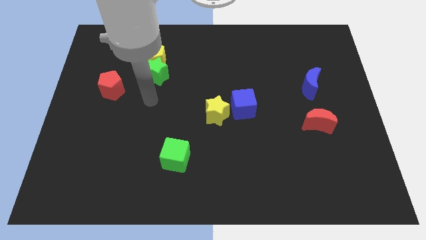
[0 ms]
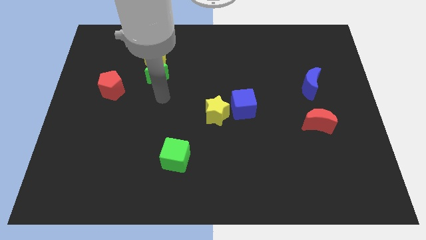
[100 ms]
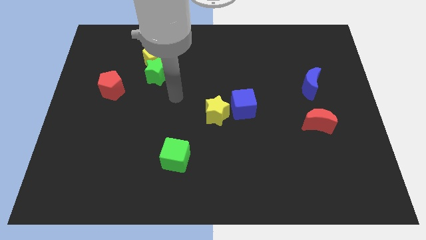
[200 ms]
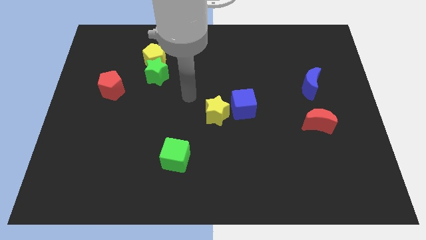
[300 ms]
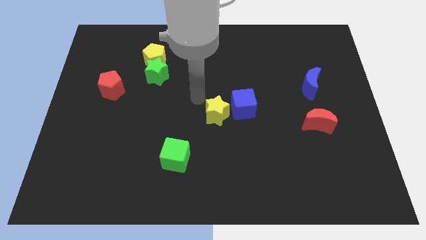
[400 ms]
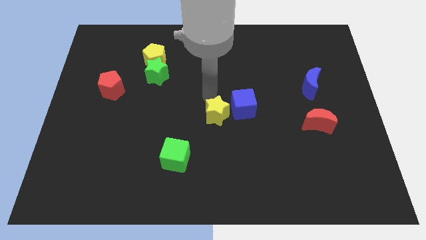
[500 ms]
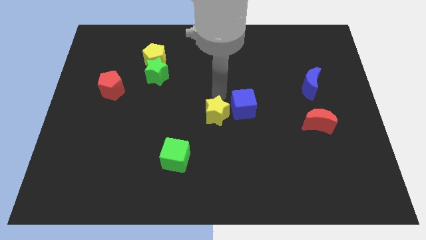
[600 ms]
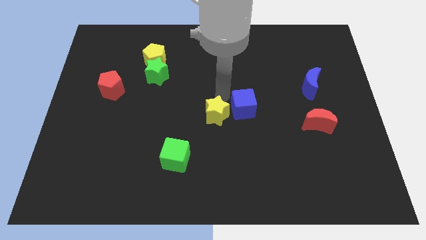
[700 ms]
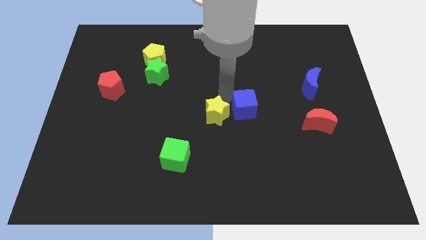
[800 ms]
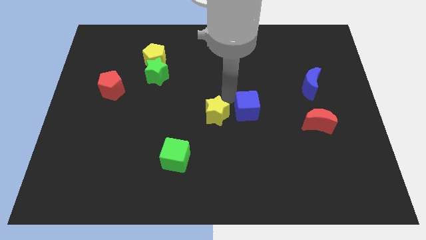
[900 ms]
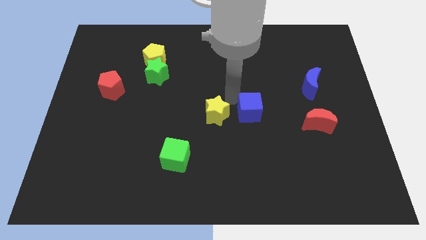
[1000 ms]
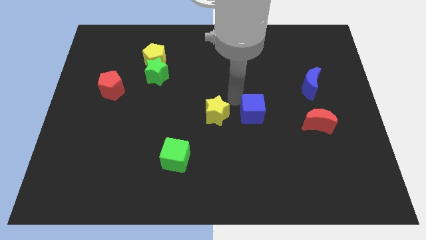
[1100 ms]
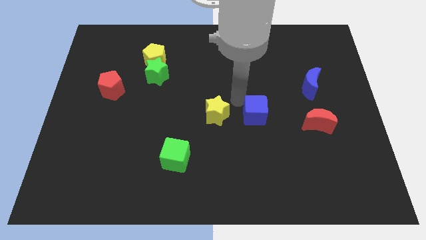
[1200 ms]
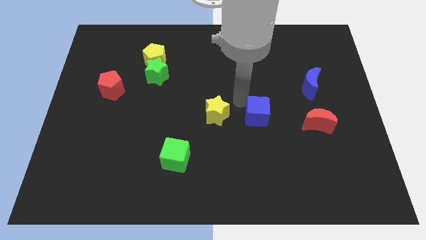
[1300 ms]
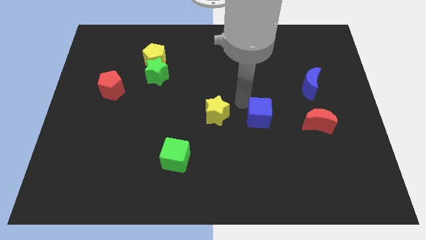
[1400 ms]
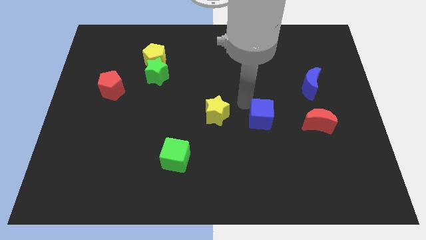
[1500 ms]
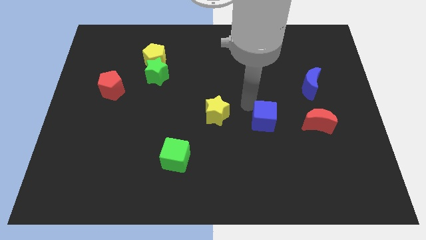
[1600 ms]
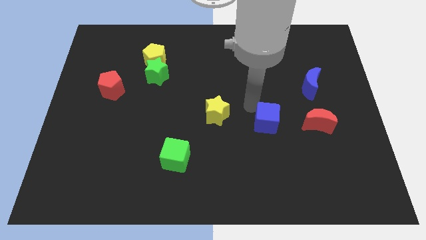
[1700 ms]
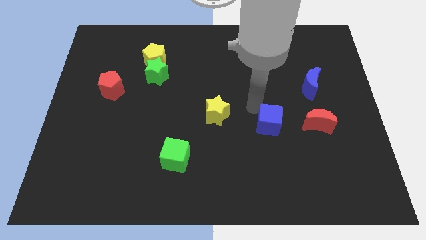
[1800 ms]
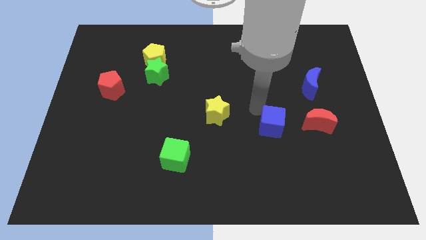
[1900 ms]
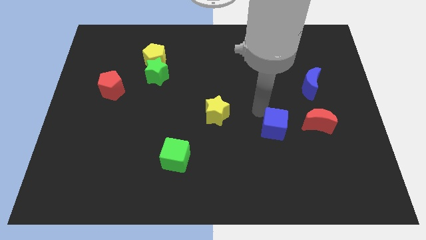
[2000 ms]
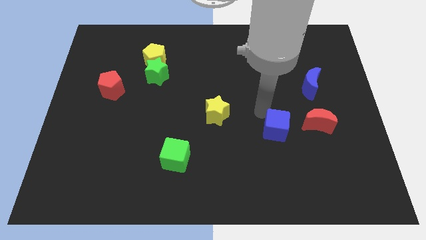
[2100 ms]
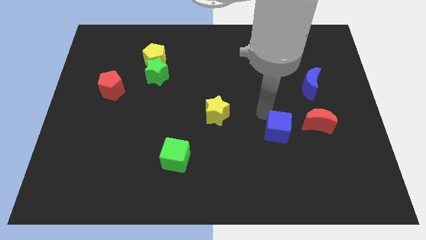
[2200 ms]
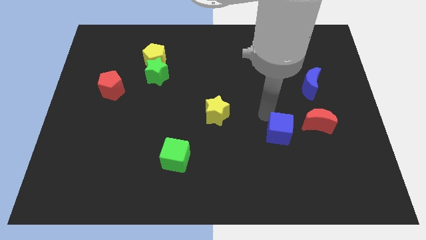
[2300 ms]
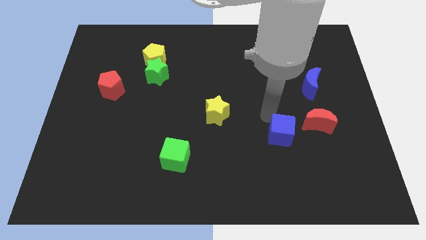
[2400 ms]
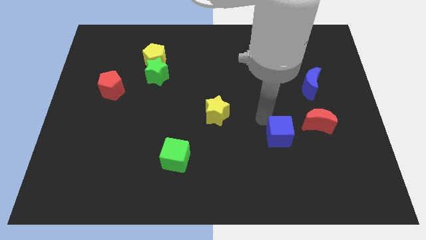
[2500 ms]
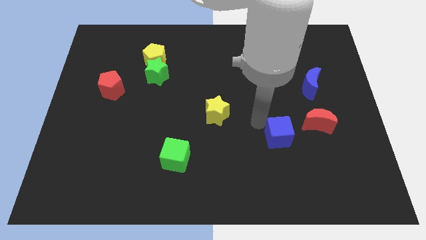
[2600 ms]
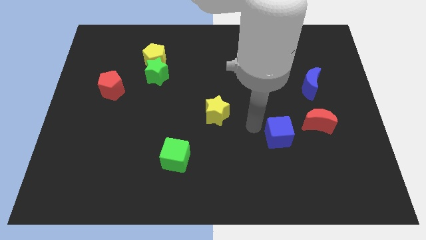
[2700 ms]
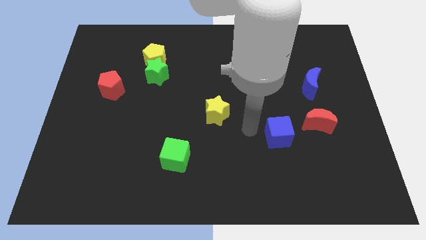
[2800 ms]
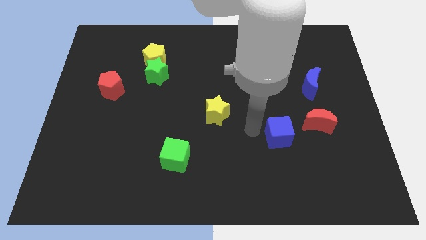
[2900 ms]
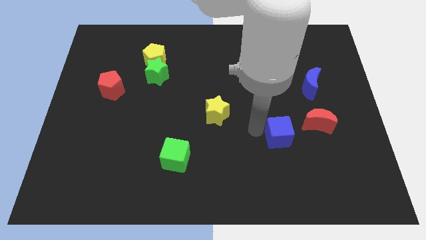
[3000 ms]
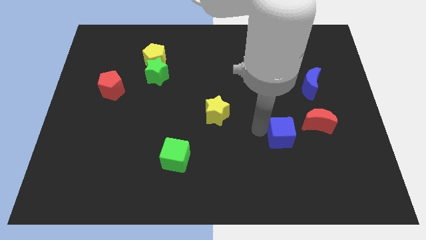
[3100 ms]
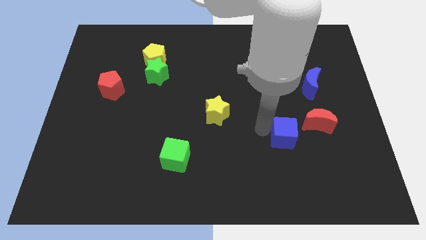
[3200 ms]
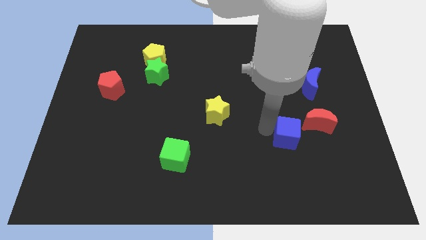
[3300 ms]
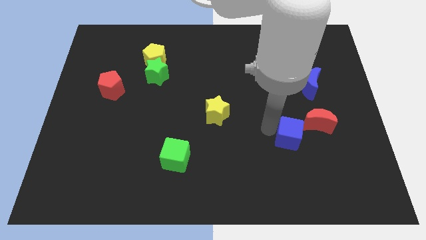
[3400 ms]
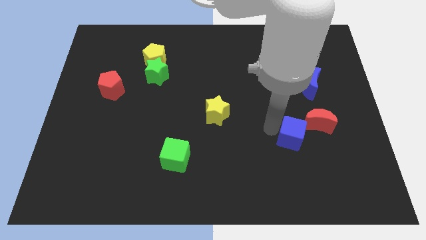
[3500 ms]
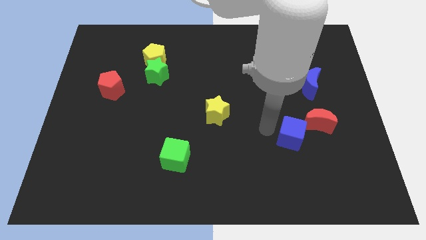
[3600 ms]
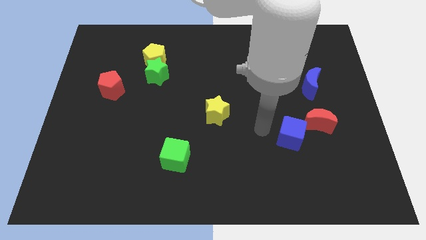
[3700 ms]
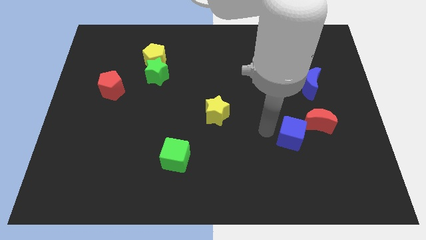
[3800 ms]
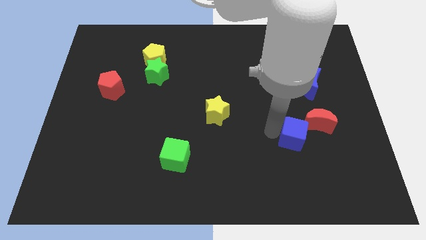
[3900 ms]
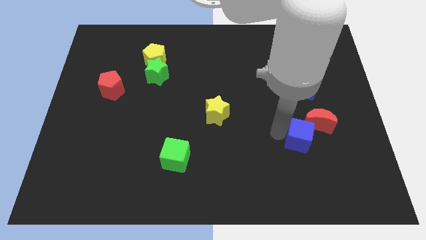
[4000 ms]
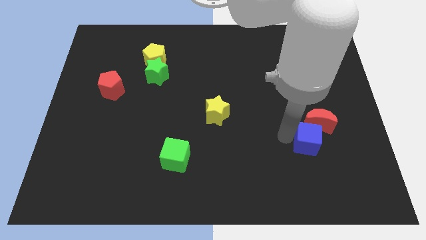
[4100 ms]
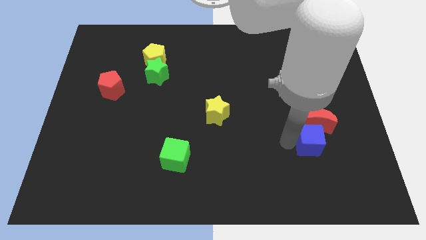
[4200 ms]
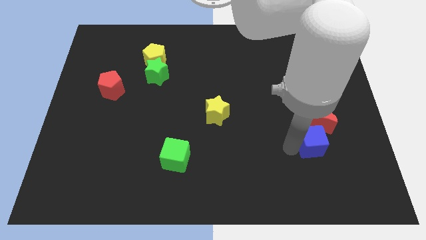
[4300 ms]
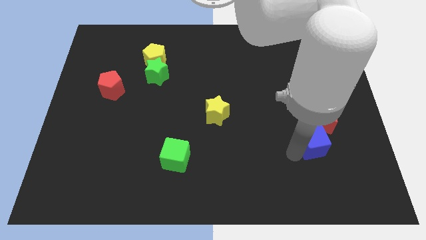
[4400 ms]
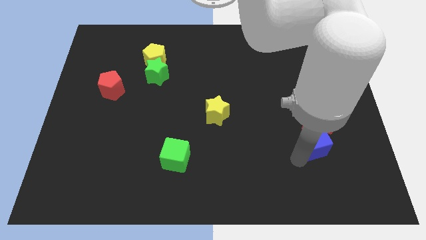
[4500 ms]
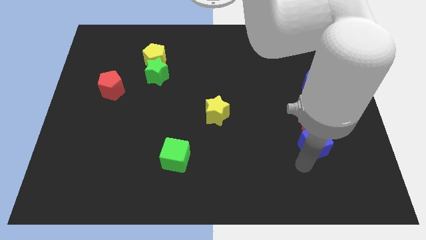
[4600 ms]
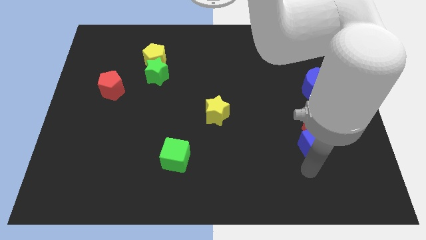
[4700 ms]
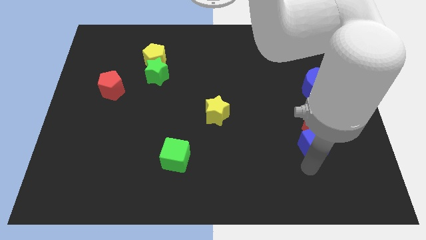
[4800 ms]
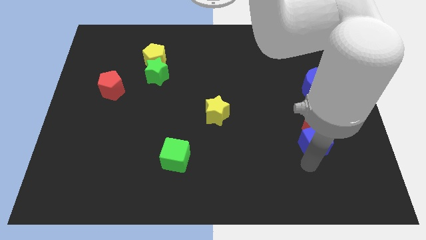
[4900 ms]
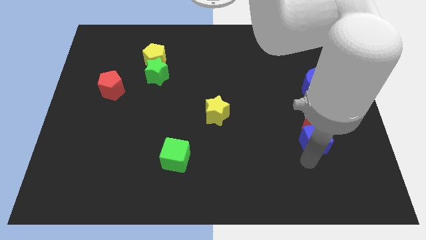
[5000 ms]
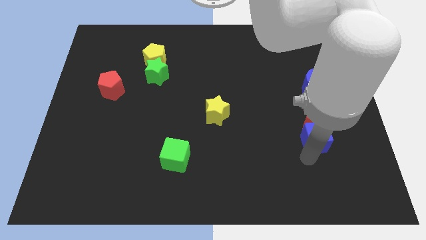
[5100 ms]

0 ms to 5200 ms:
push the blue cube to the bottom of the blue moon
